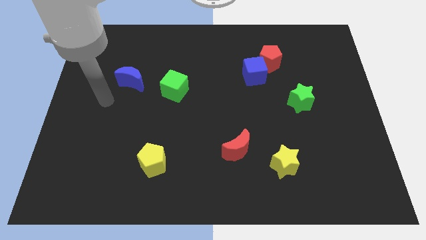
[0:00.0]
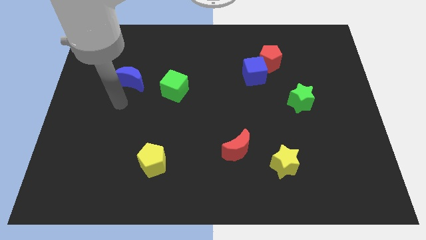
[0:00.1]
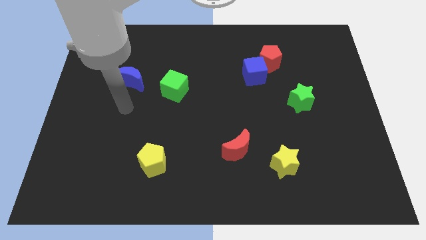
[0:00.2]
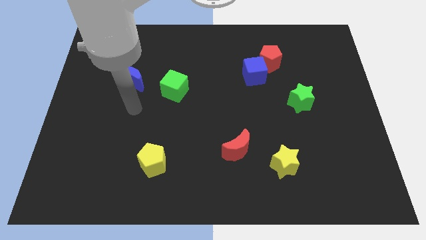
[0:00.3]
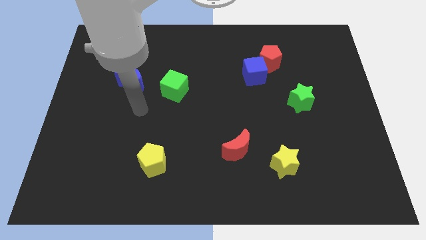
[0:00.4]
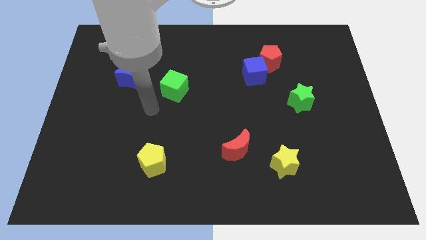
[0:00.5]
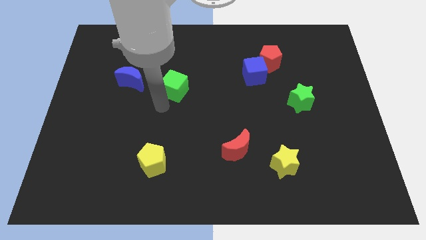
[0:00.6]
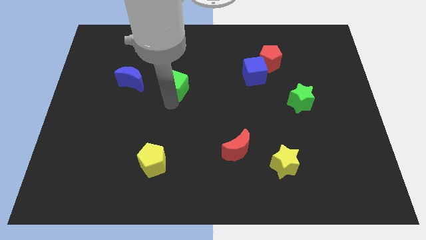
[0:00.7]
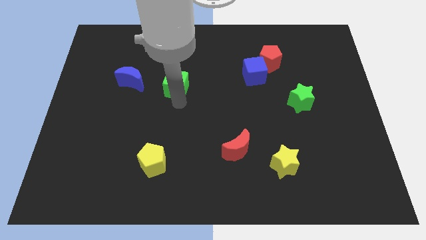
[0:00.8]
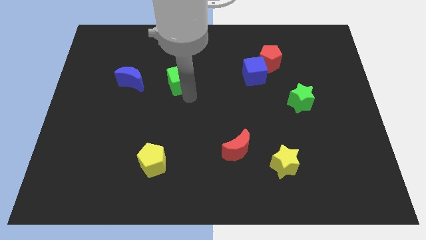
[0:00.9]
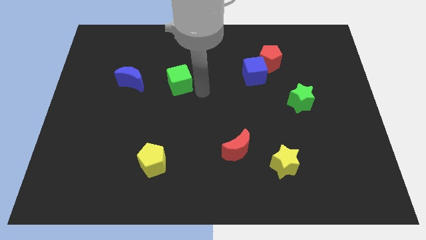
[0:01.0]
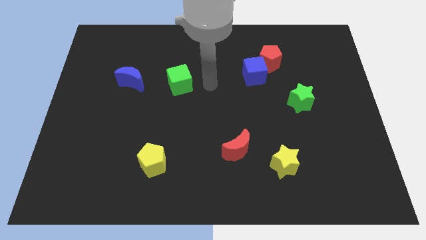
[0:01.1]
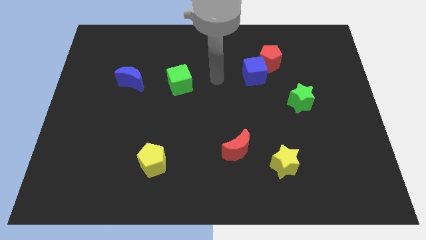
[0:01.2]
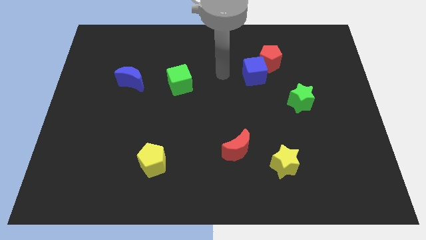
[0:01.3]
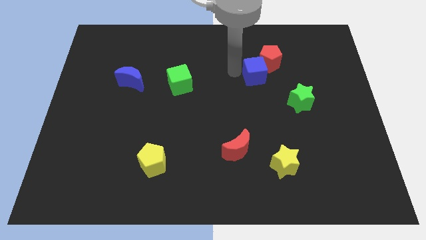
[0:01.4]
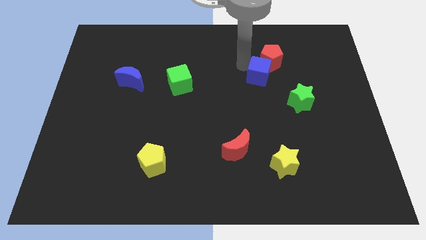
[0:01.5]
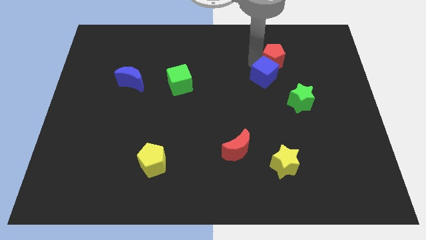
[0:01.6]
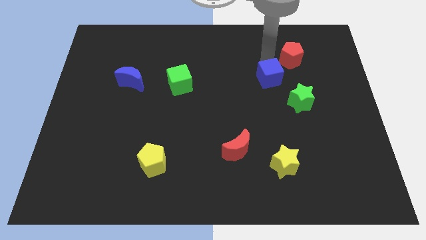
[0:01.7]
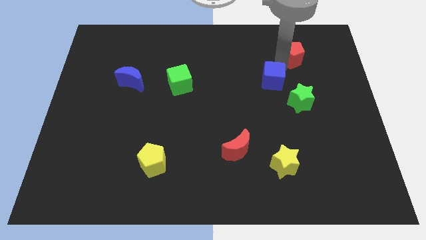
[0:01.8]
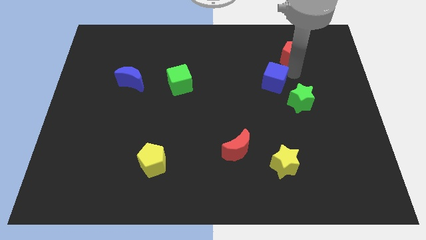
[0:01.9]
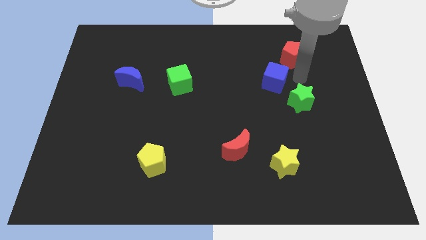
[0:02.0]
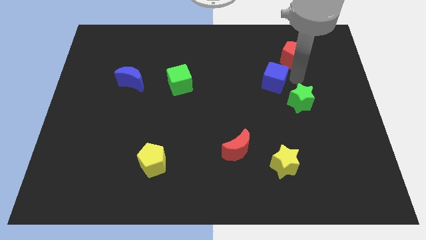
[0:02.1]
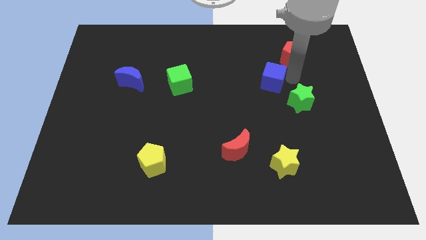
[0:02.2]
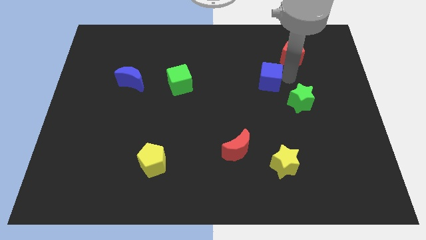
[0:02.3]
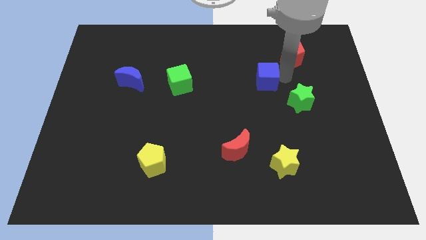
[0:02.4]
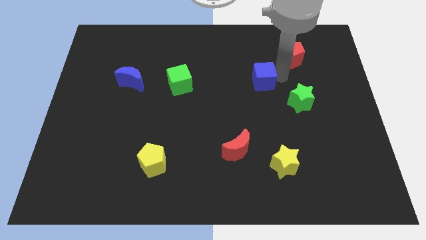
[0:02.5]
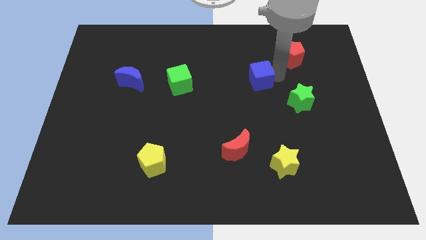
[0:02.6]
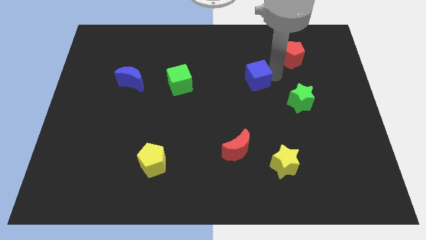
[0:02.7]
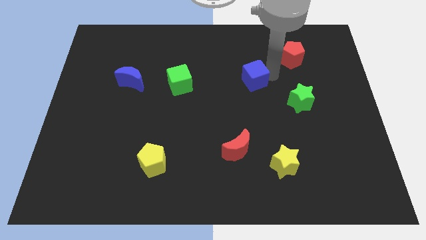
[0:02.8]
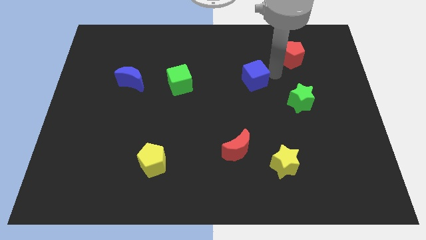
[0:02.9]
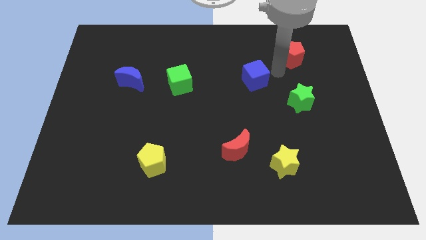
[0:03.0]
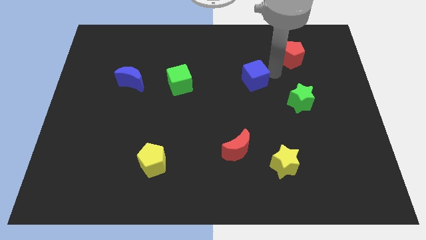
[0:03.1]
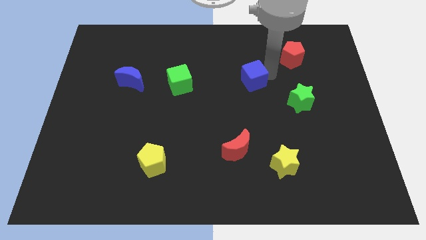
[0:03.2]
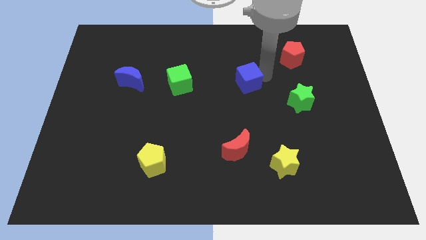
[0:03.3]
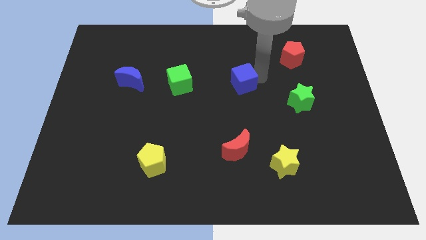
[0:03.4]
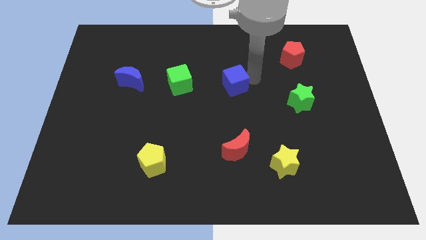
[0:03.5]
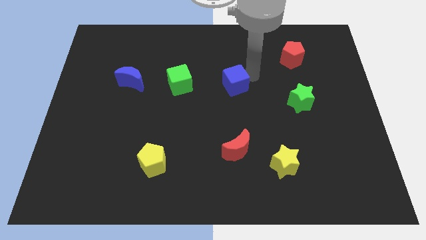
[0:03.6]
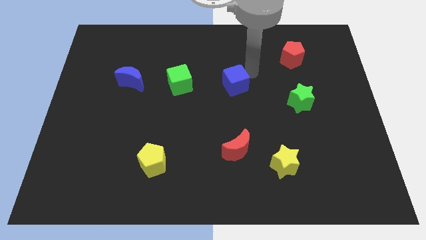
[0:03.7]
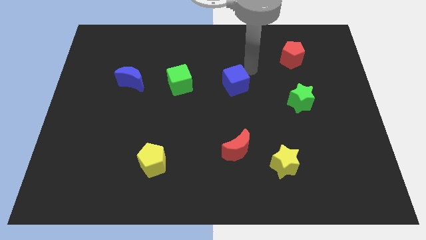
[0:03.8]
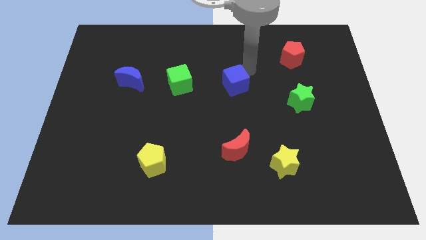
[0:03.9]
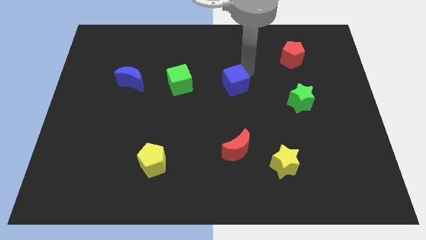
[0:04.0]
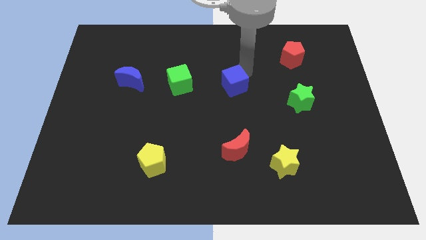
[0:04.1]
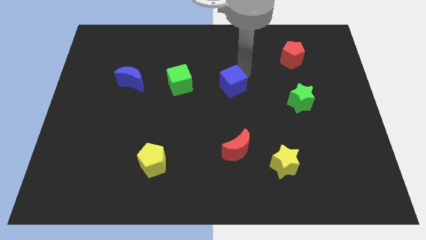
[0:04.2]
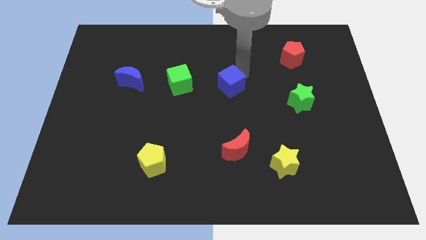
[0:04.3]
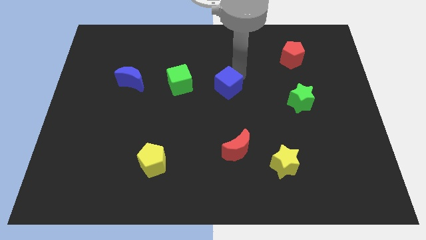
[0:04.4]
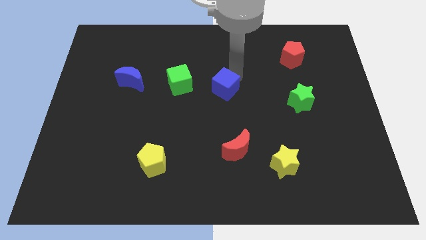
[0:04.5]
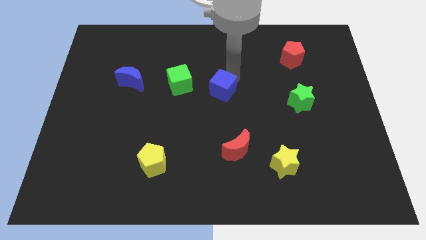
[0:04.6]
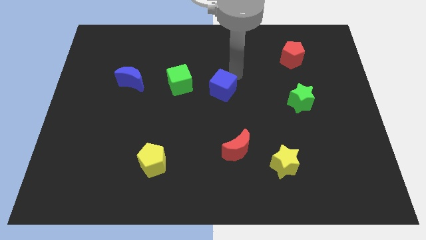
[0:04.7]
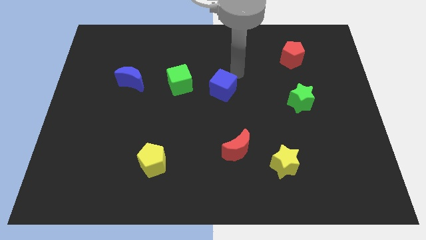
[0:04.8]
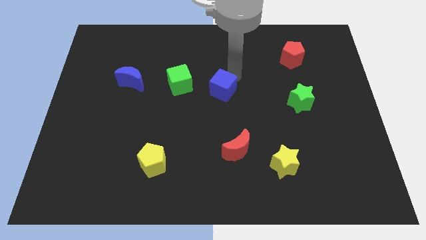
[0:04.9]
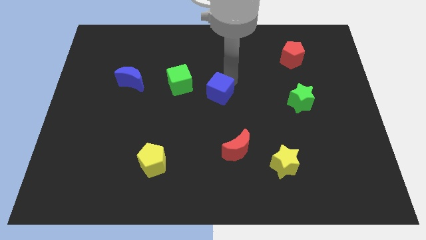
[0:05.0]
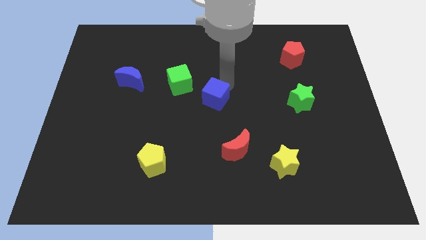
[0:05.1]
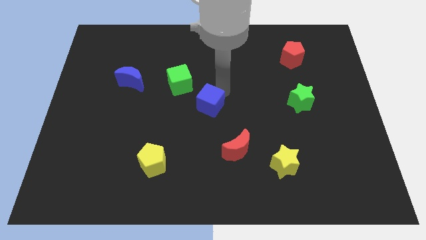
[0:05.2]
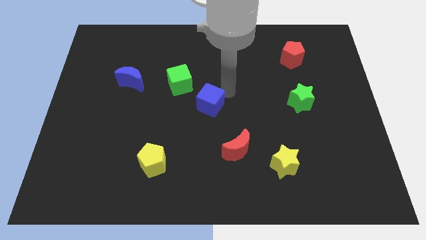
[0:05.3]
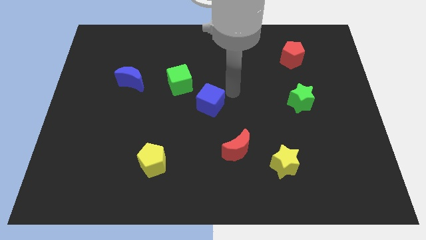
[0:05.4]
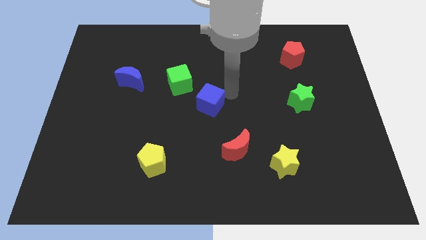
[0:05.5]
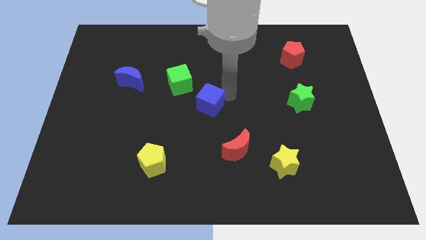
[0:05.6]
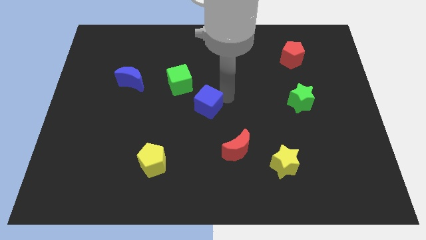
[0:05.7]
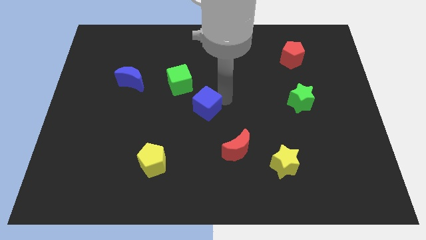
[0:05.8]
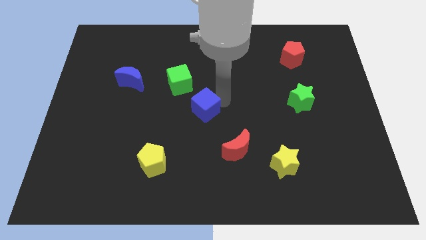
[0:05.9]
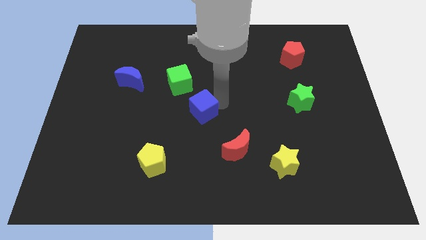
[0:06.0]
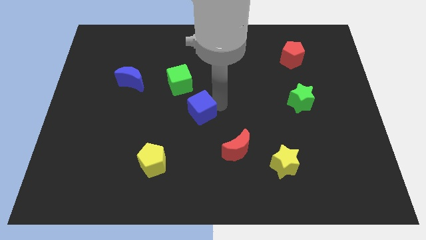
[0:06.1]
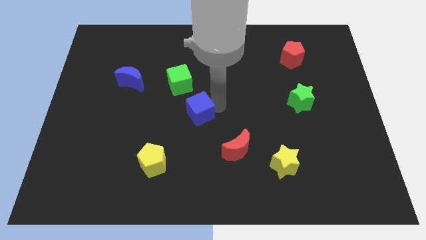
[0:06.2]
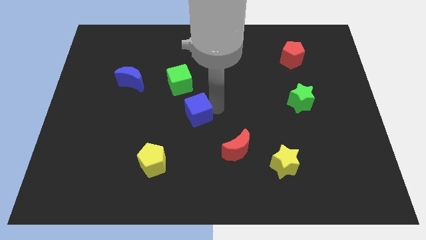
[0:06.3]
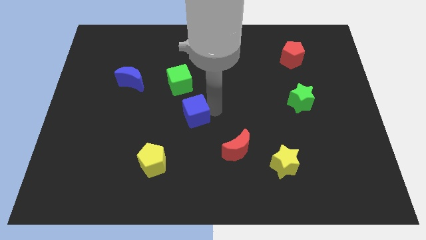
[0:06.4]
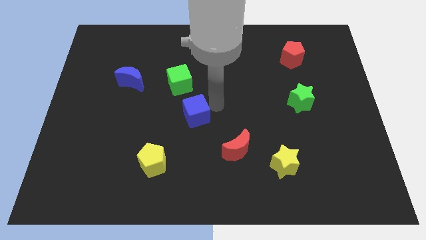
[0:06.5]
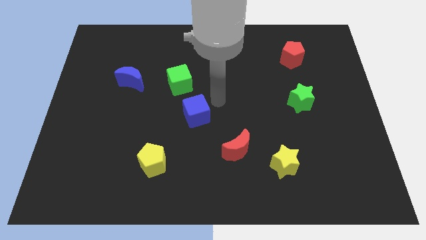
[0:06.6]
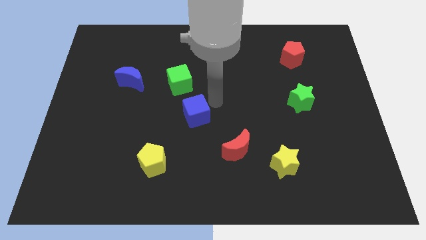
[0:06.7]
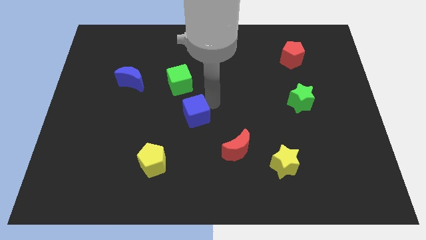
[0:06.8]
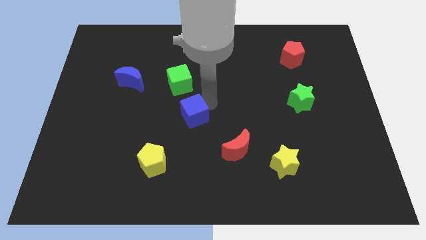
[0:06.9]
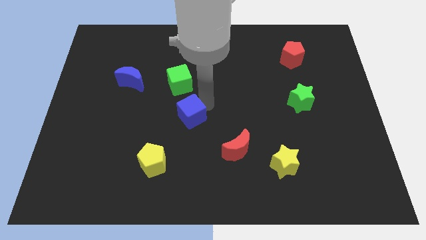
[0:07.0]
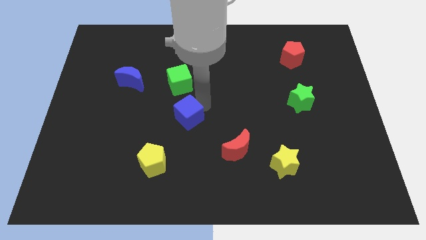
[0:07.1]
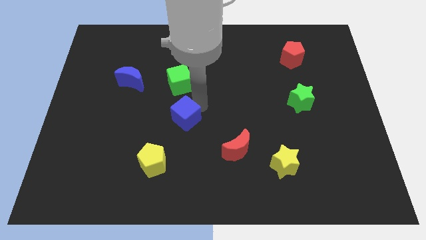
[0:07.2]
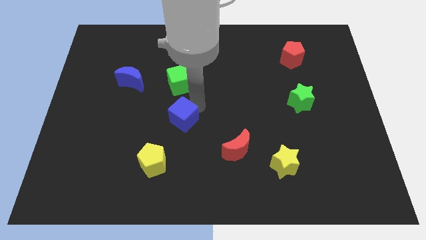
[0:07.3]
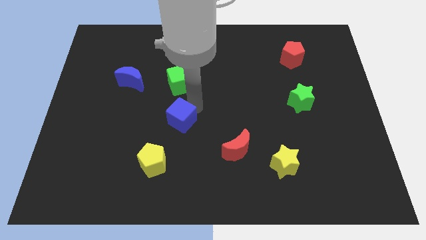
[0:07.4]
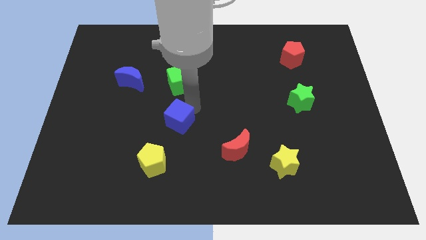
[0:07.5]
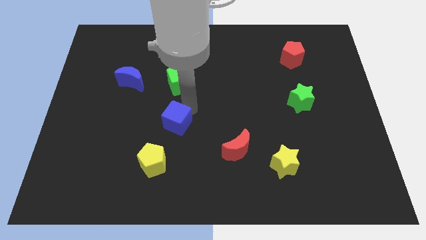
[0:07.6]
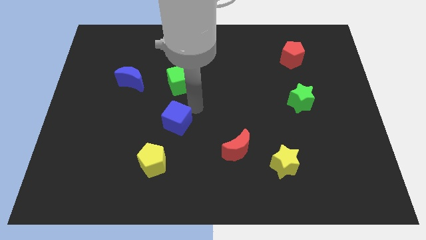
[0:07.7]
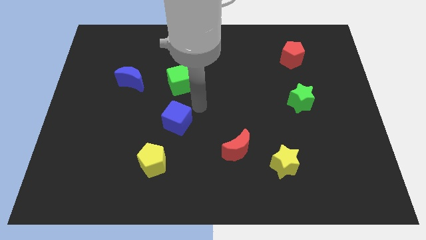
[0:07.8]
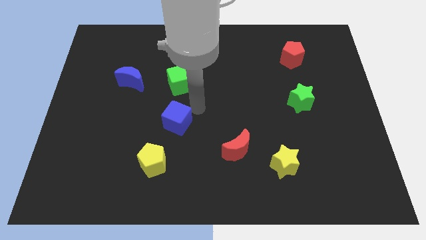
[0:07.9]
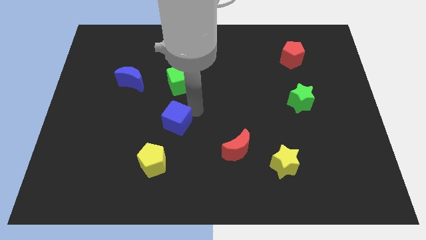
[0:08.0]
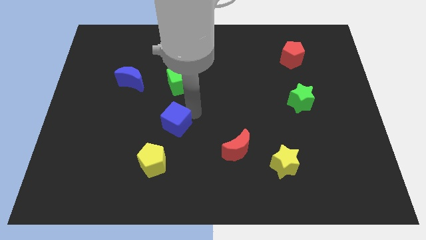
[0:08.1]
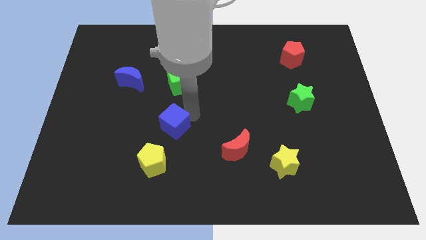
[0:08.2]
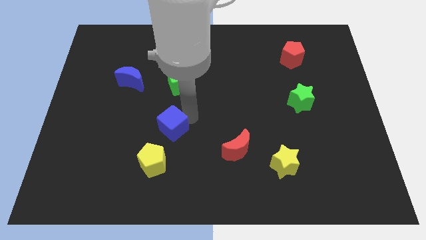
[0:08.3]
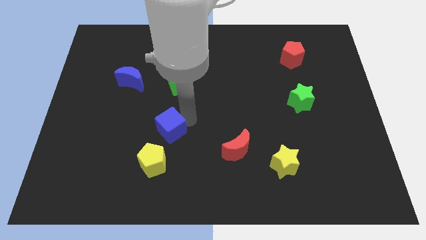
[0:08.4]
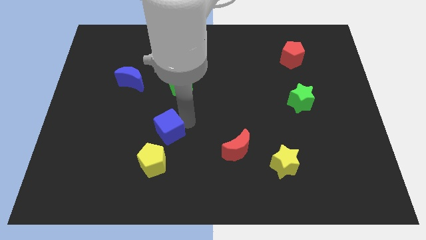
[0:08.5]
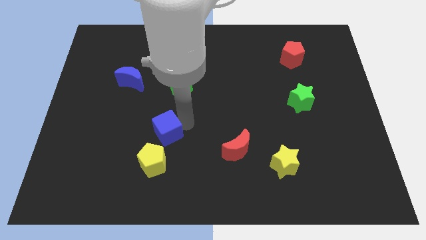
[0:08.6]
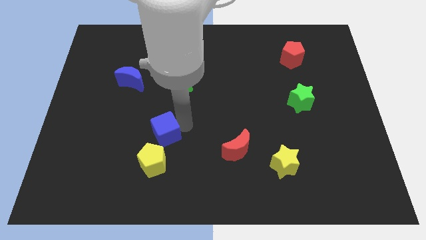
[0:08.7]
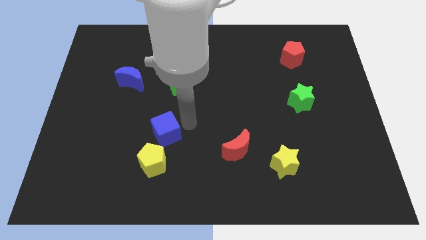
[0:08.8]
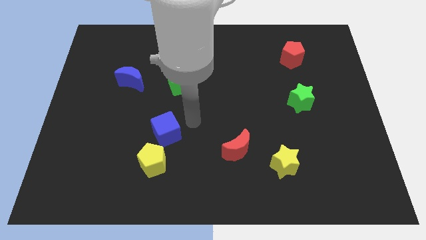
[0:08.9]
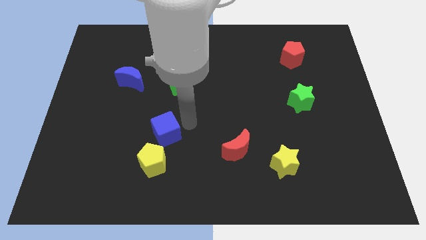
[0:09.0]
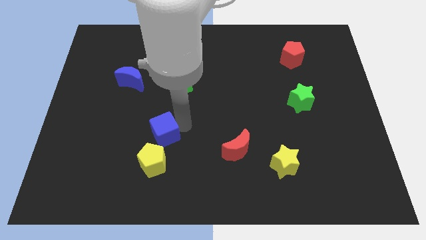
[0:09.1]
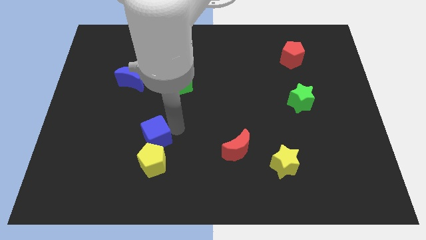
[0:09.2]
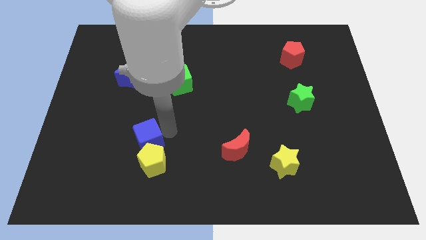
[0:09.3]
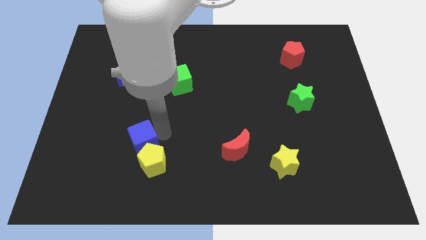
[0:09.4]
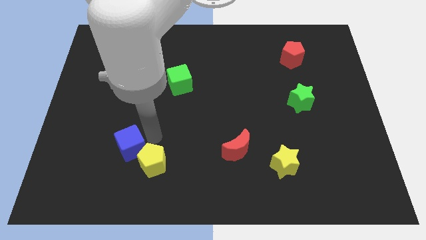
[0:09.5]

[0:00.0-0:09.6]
slide the blue cube left of the yellow pentagon
